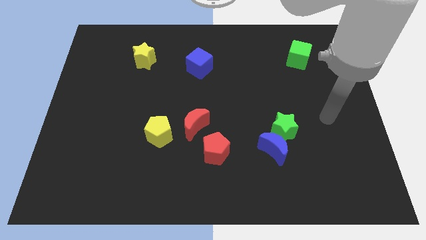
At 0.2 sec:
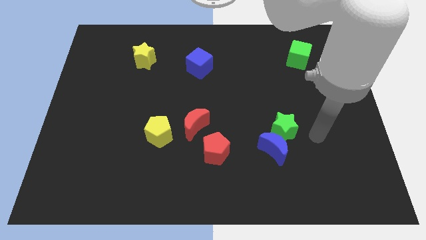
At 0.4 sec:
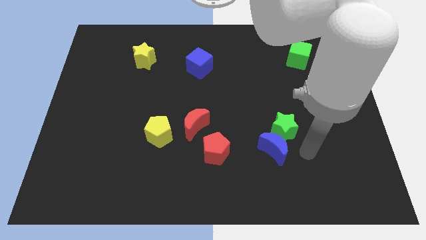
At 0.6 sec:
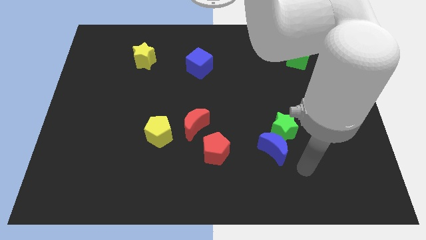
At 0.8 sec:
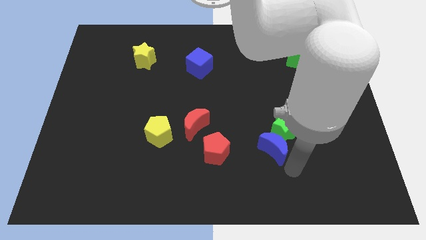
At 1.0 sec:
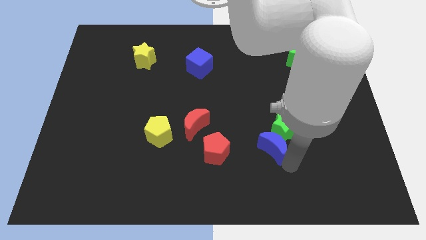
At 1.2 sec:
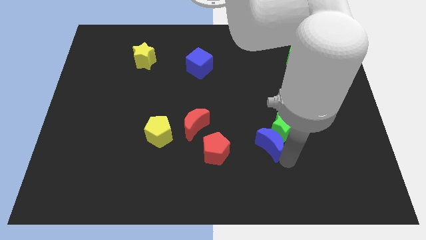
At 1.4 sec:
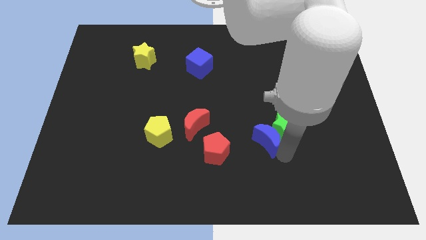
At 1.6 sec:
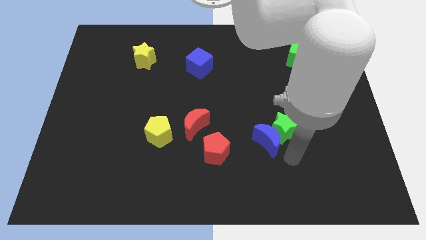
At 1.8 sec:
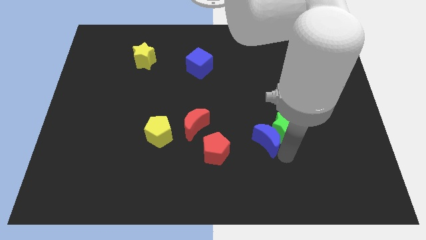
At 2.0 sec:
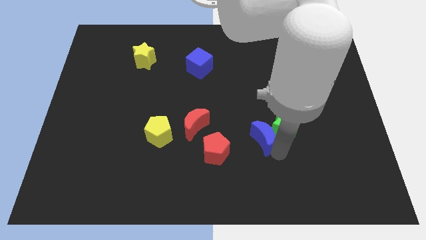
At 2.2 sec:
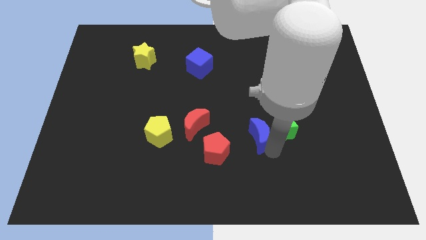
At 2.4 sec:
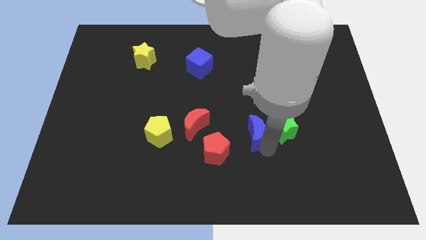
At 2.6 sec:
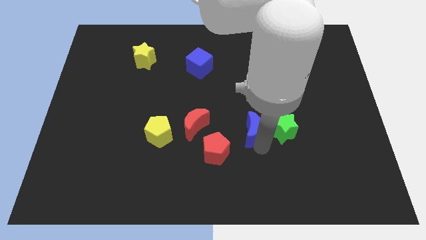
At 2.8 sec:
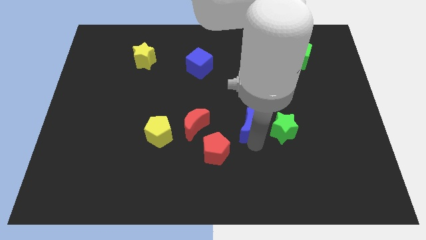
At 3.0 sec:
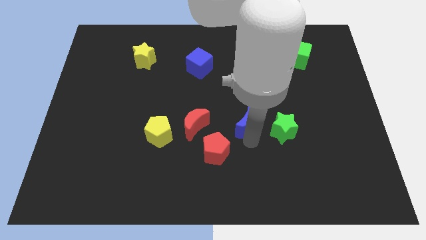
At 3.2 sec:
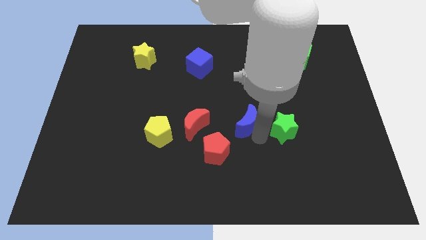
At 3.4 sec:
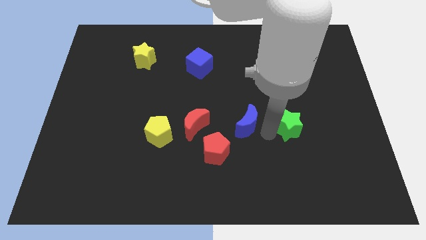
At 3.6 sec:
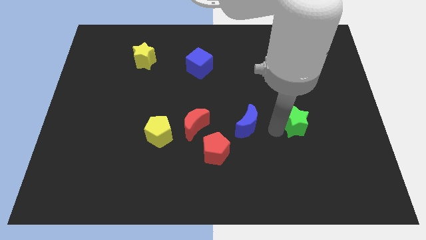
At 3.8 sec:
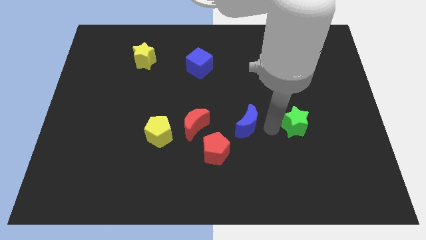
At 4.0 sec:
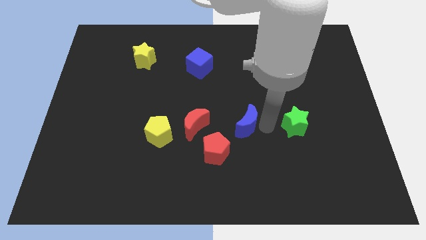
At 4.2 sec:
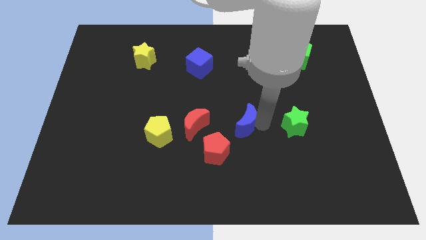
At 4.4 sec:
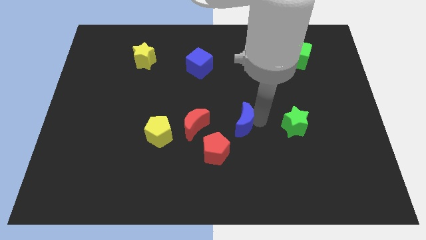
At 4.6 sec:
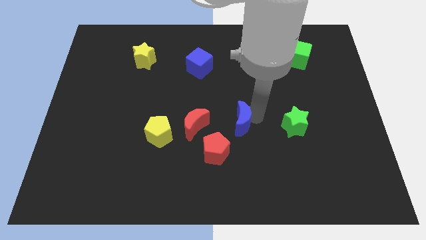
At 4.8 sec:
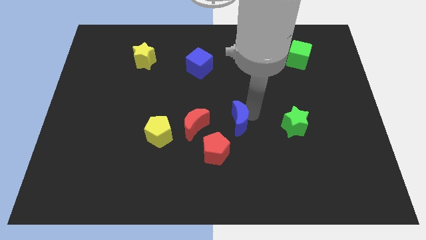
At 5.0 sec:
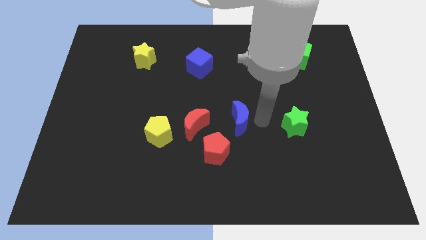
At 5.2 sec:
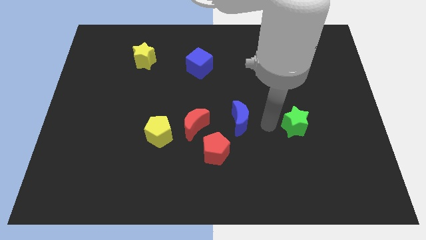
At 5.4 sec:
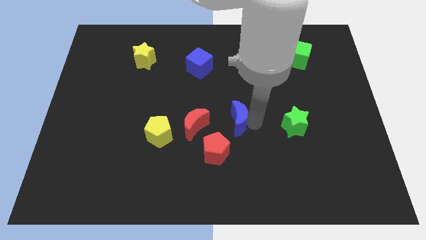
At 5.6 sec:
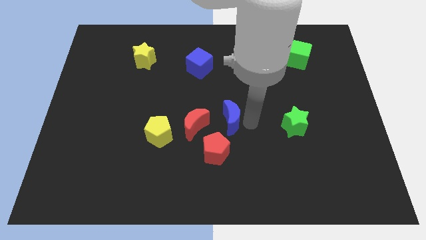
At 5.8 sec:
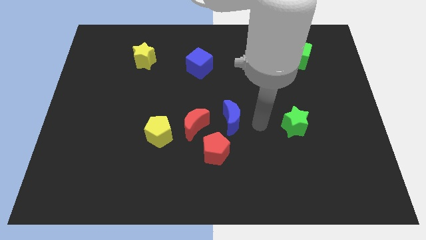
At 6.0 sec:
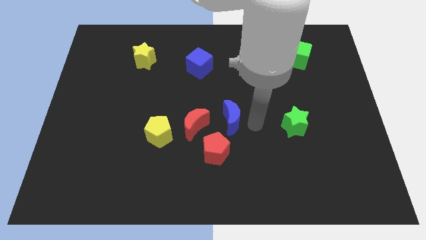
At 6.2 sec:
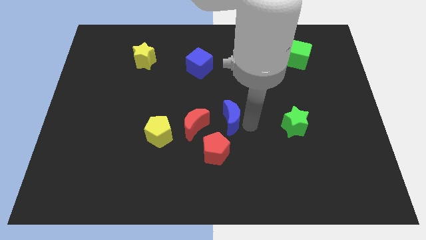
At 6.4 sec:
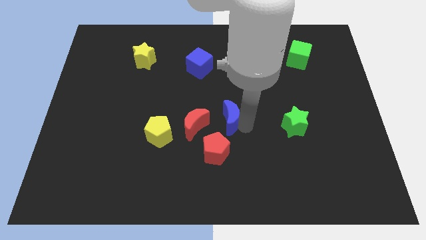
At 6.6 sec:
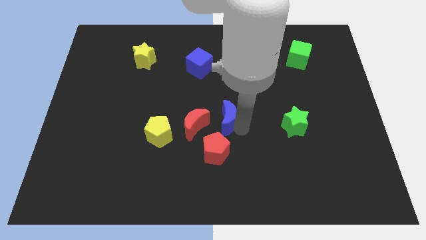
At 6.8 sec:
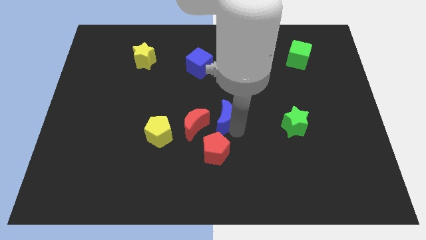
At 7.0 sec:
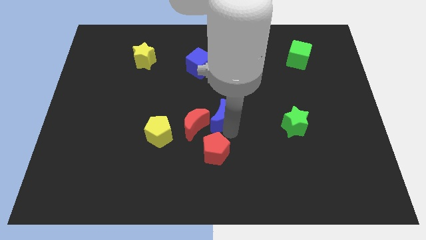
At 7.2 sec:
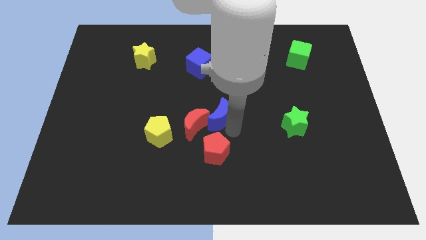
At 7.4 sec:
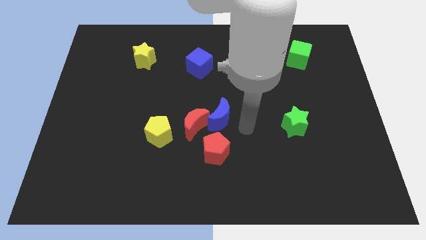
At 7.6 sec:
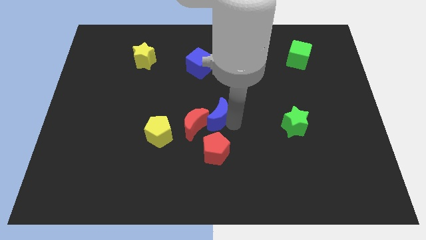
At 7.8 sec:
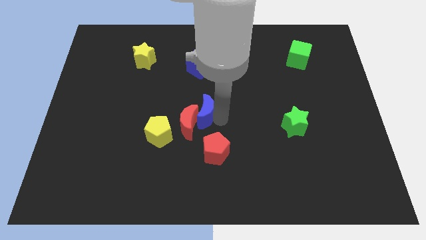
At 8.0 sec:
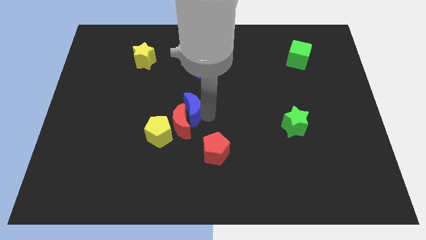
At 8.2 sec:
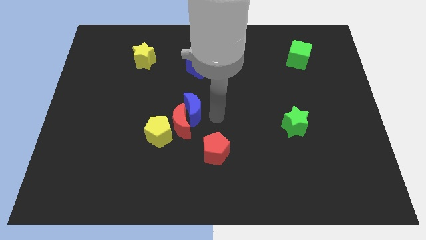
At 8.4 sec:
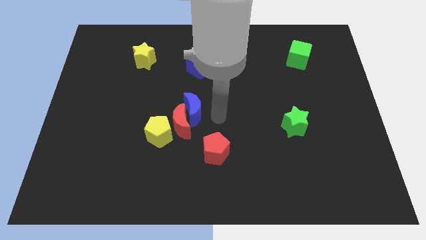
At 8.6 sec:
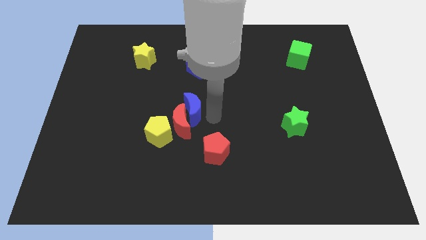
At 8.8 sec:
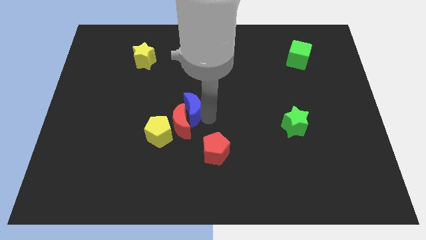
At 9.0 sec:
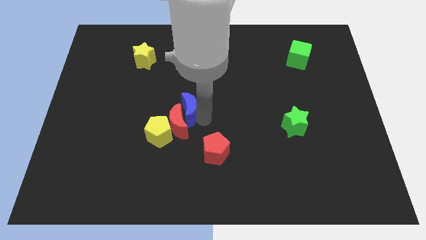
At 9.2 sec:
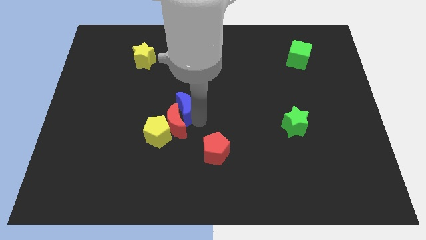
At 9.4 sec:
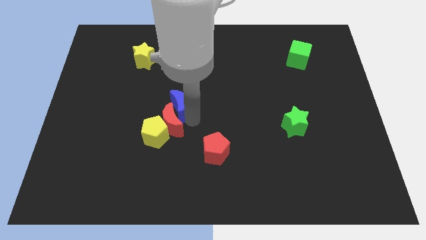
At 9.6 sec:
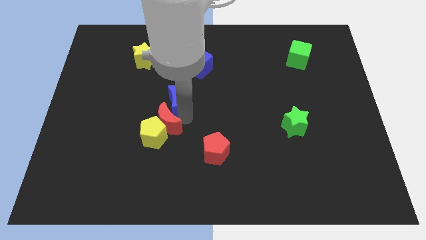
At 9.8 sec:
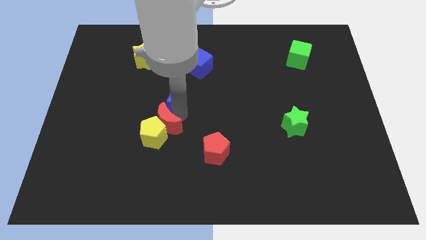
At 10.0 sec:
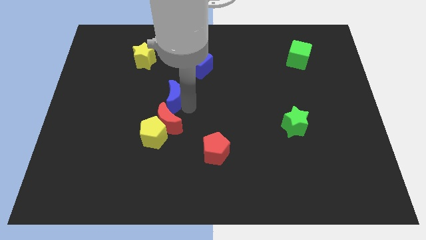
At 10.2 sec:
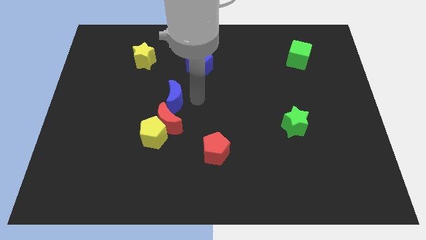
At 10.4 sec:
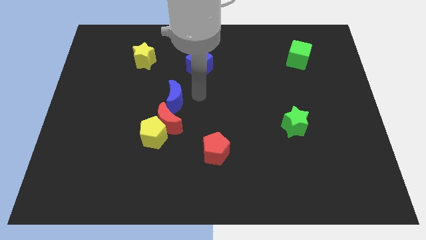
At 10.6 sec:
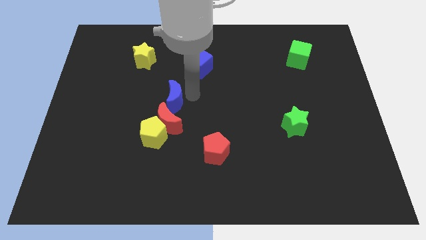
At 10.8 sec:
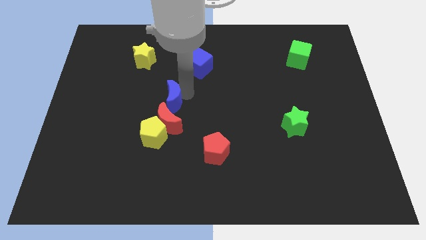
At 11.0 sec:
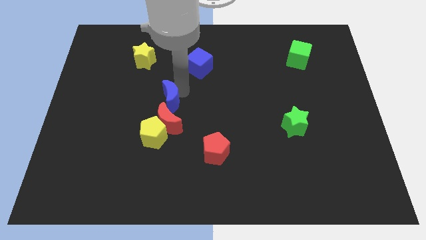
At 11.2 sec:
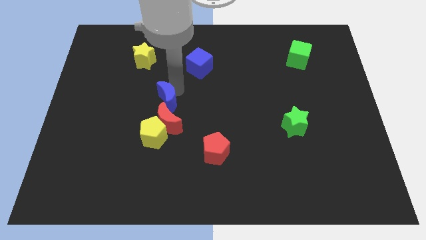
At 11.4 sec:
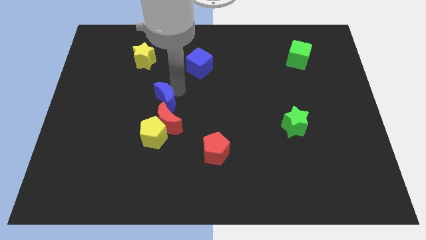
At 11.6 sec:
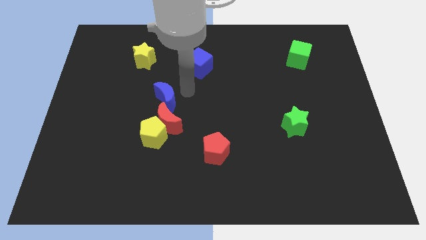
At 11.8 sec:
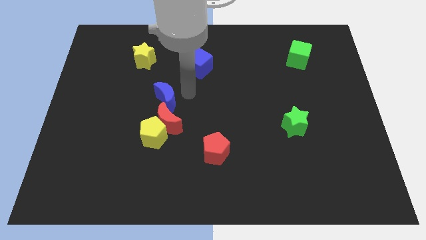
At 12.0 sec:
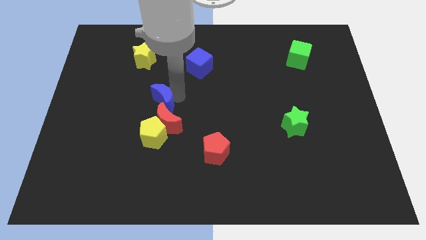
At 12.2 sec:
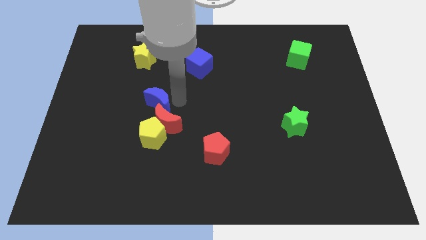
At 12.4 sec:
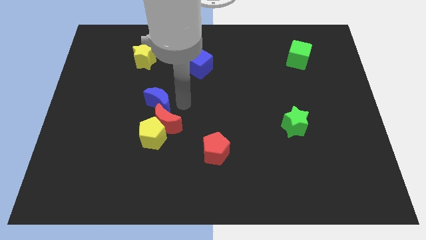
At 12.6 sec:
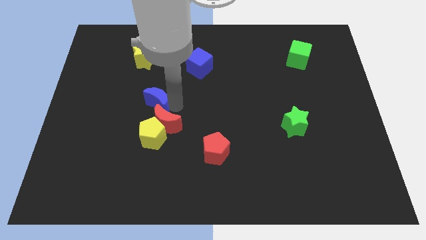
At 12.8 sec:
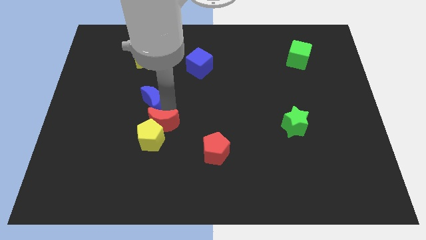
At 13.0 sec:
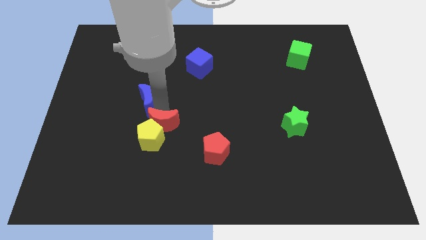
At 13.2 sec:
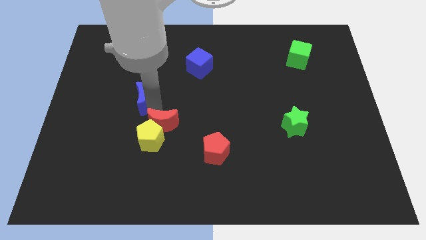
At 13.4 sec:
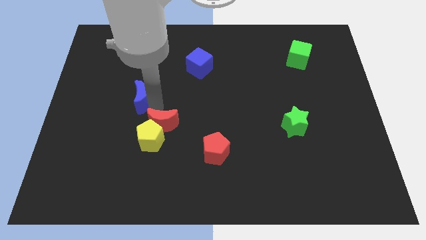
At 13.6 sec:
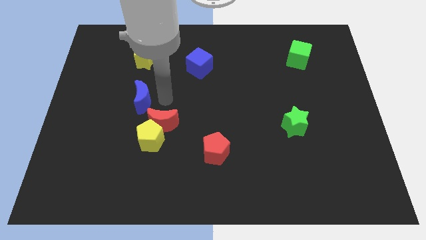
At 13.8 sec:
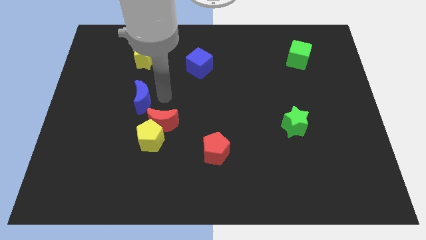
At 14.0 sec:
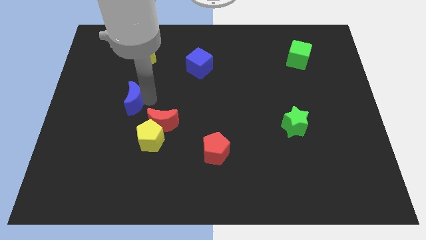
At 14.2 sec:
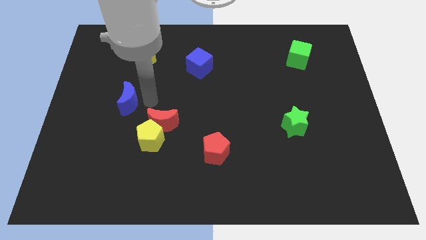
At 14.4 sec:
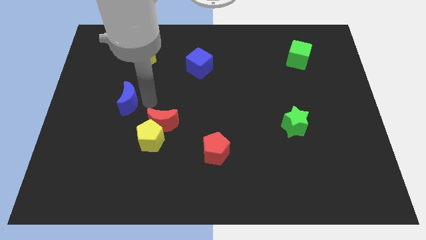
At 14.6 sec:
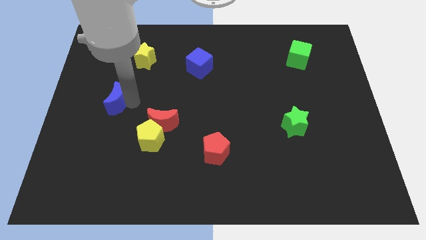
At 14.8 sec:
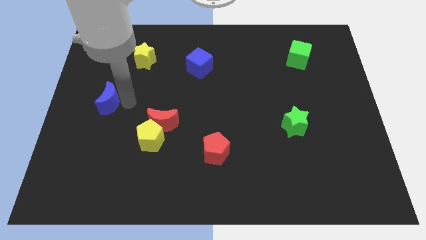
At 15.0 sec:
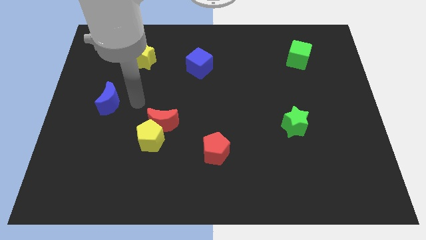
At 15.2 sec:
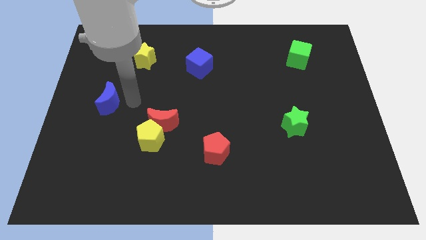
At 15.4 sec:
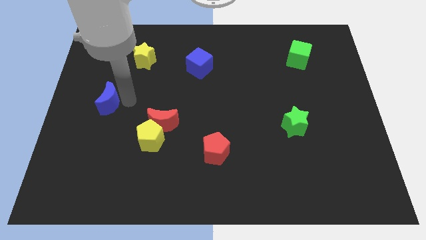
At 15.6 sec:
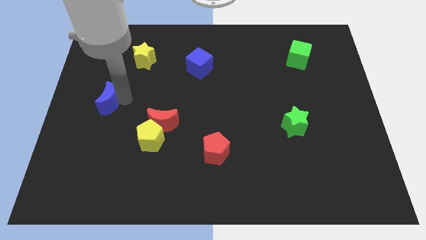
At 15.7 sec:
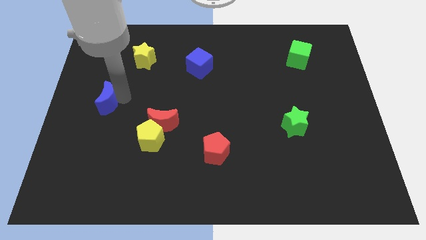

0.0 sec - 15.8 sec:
move the blue moon to the left side of the board
